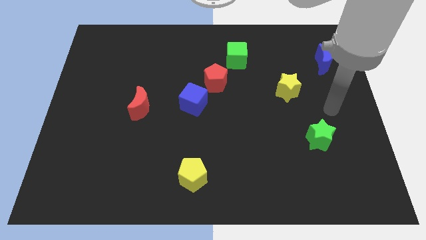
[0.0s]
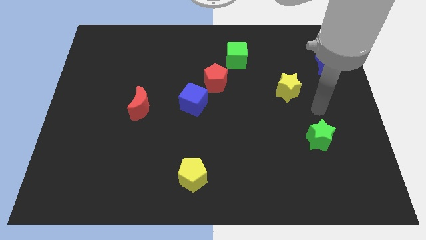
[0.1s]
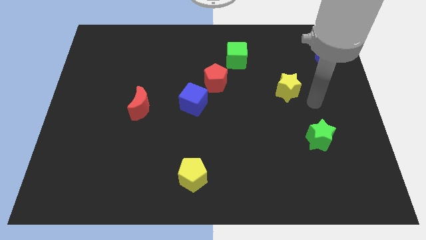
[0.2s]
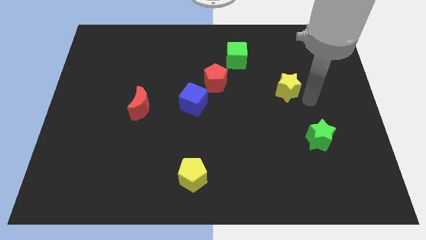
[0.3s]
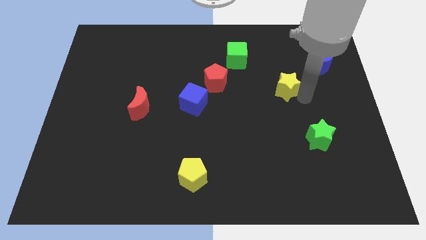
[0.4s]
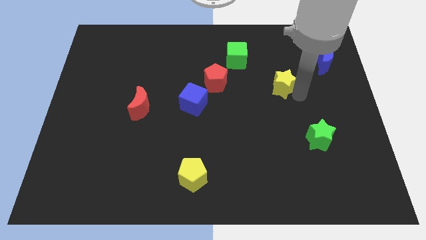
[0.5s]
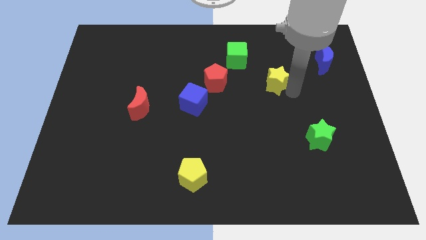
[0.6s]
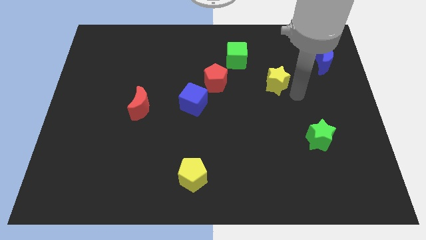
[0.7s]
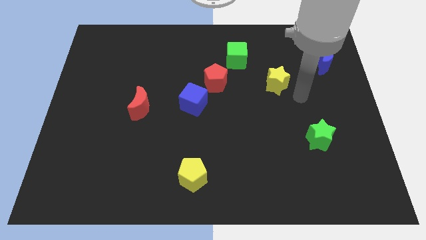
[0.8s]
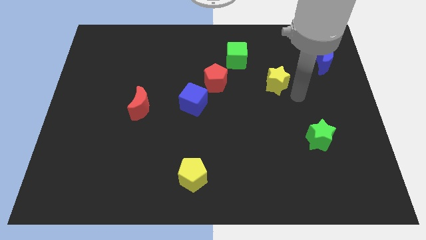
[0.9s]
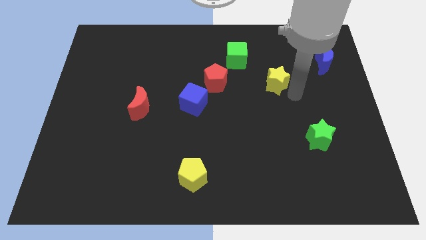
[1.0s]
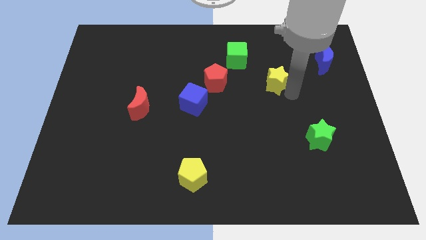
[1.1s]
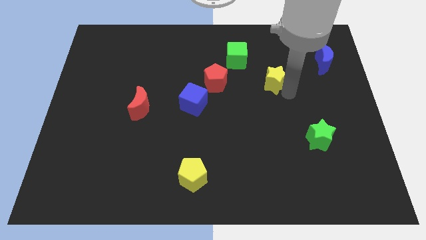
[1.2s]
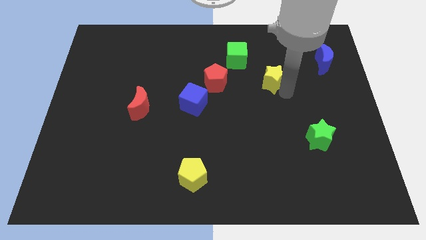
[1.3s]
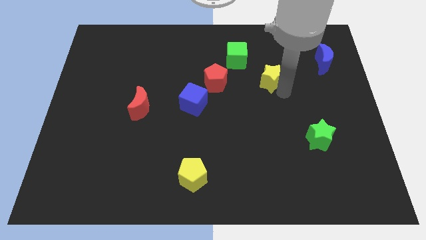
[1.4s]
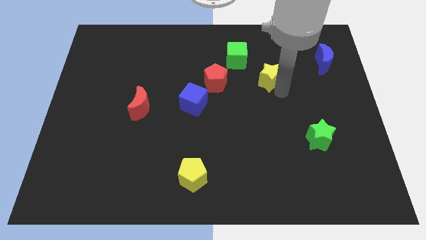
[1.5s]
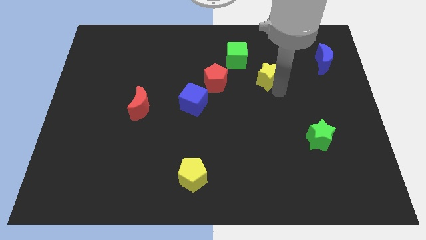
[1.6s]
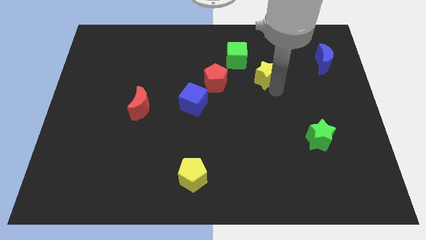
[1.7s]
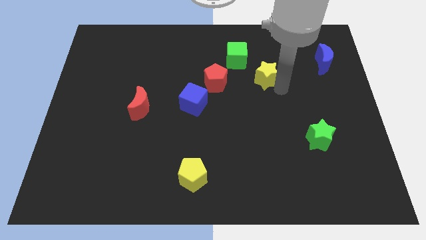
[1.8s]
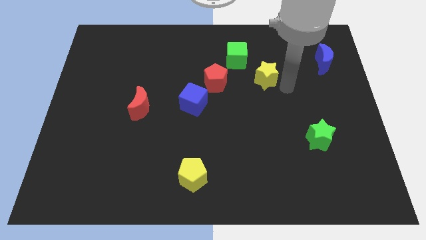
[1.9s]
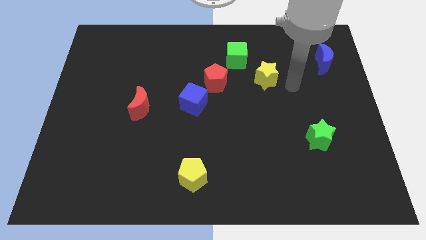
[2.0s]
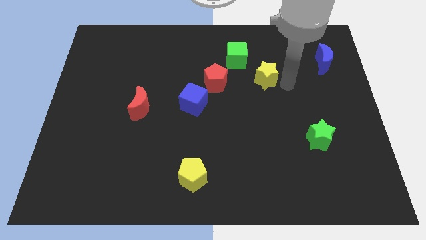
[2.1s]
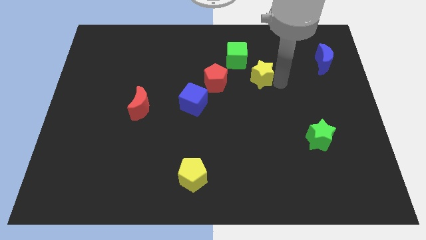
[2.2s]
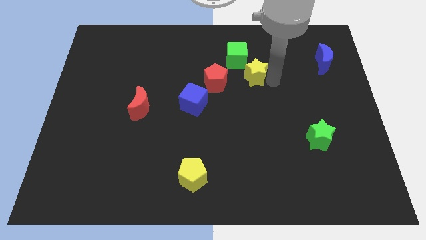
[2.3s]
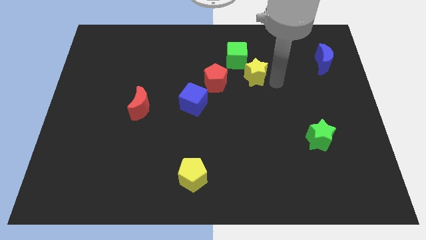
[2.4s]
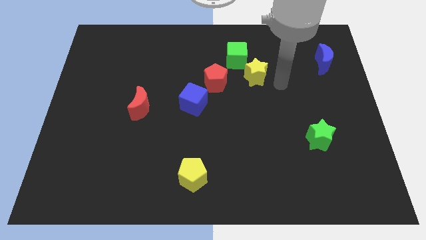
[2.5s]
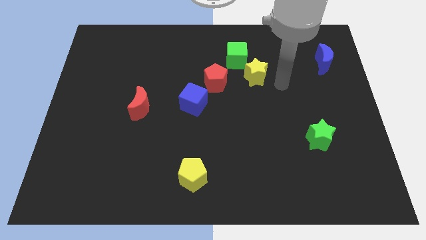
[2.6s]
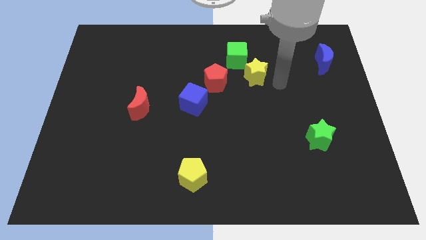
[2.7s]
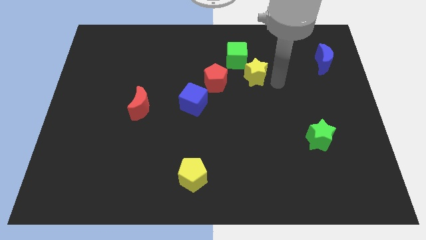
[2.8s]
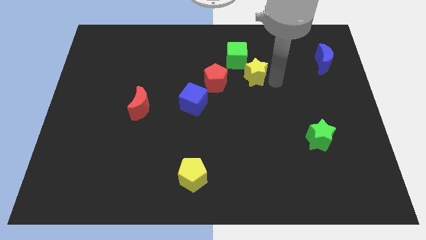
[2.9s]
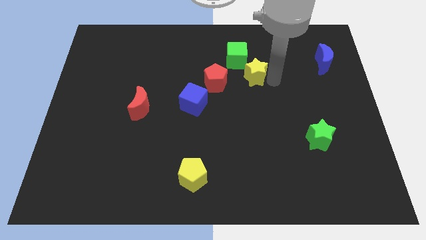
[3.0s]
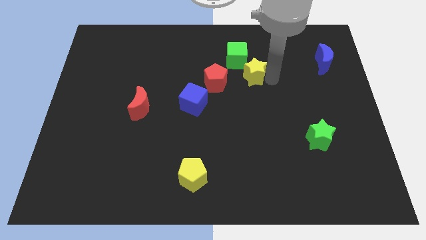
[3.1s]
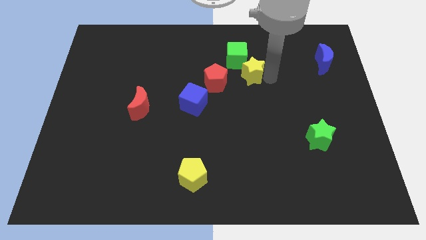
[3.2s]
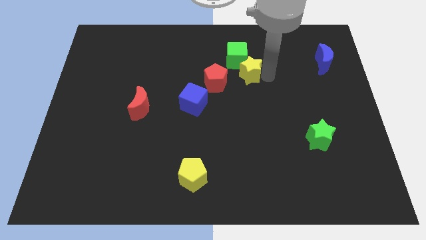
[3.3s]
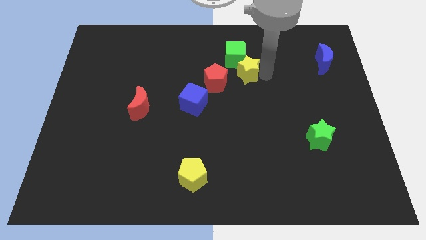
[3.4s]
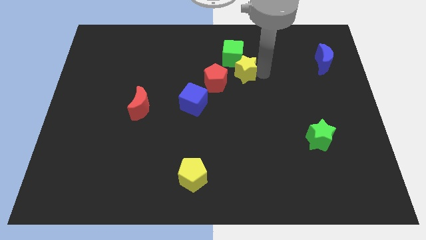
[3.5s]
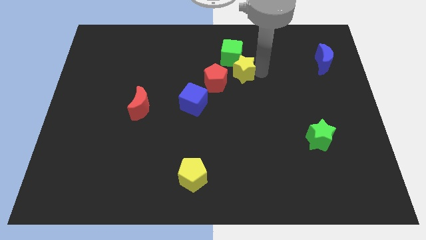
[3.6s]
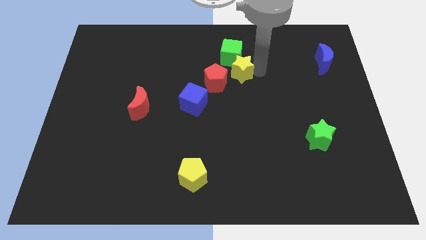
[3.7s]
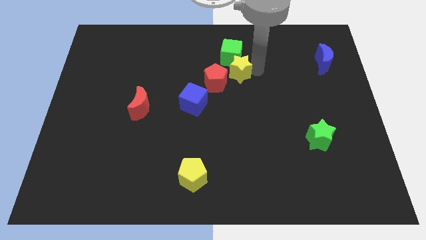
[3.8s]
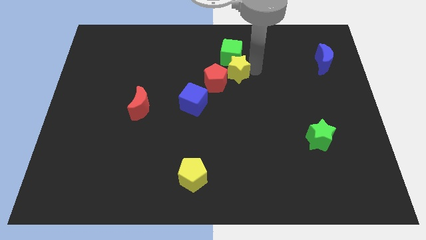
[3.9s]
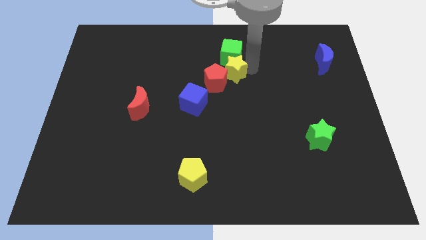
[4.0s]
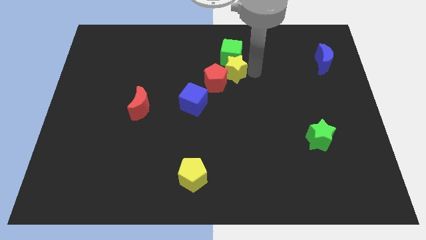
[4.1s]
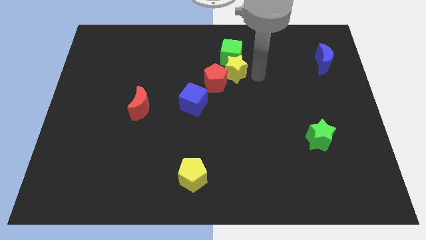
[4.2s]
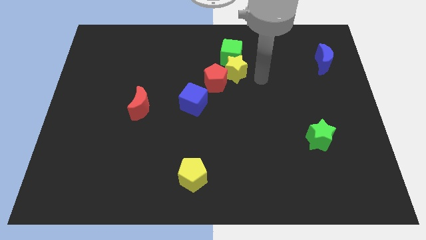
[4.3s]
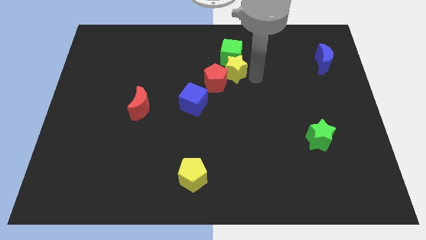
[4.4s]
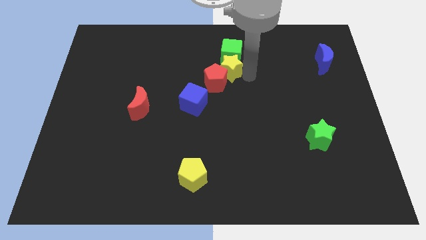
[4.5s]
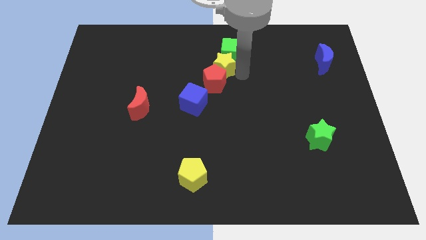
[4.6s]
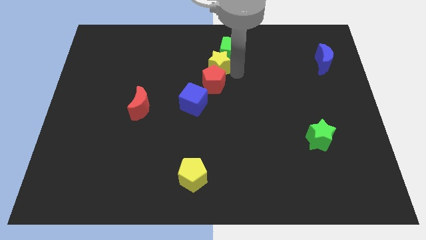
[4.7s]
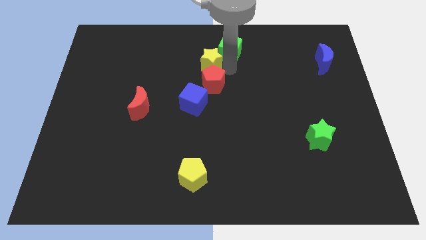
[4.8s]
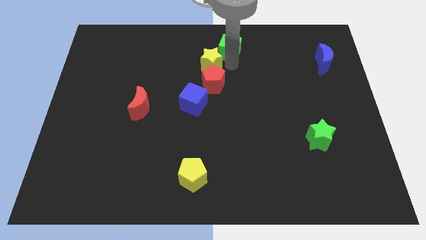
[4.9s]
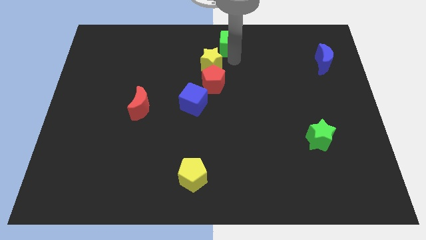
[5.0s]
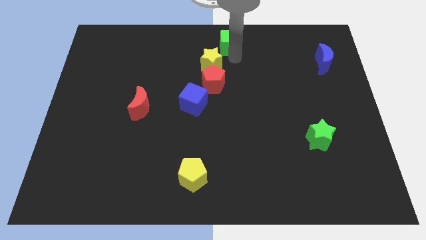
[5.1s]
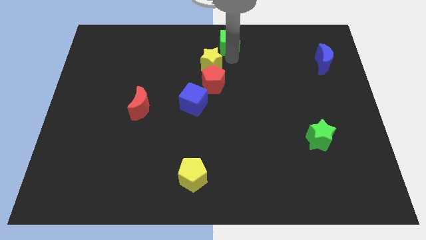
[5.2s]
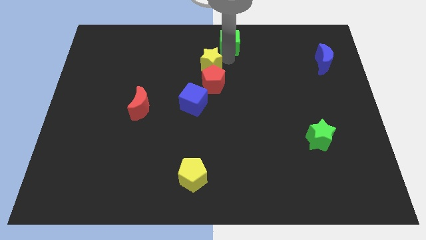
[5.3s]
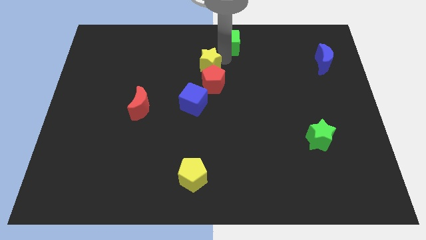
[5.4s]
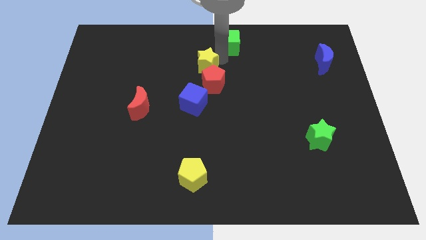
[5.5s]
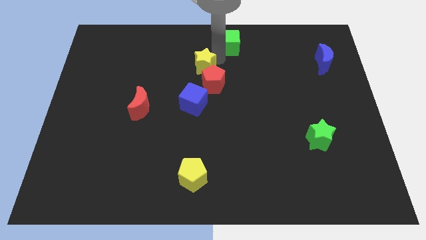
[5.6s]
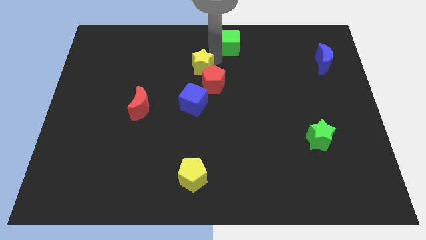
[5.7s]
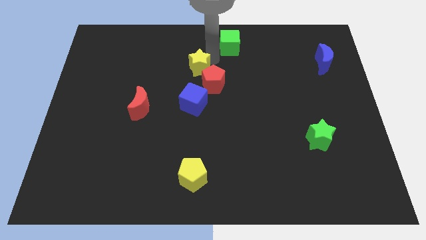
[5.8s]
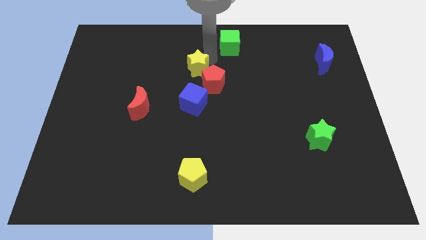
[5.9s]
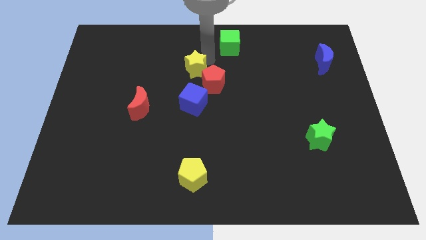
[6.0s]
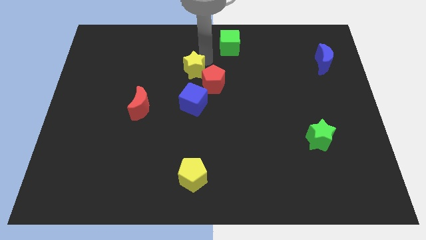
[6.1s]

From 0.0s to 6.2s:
move the yellow star to the left of the red pentagon

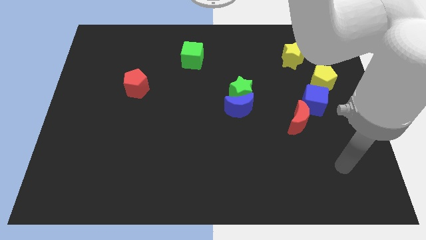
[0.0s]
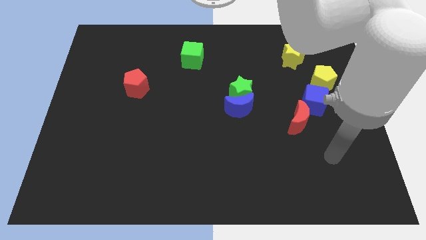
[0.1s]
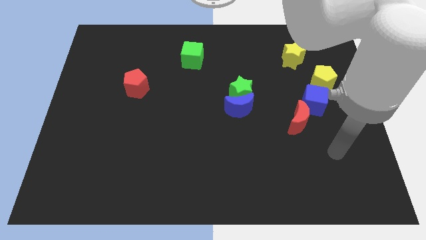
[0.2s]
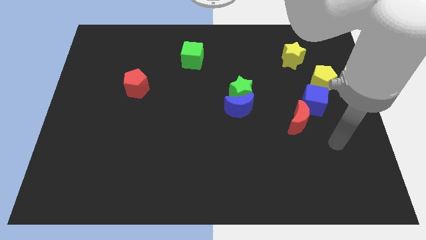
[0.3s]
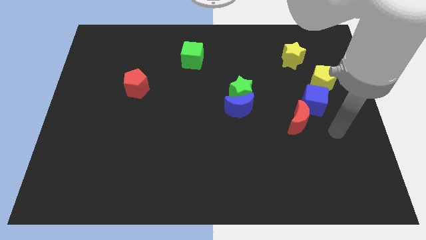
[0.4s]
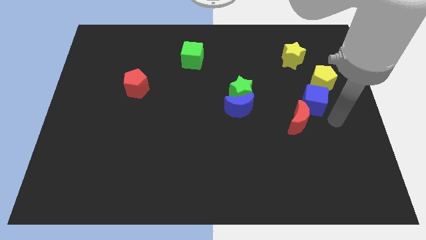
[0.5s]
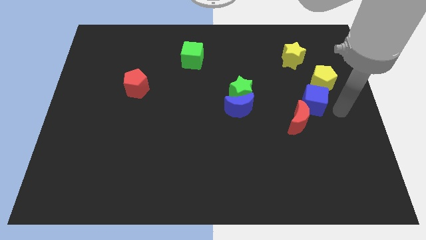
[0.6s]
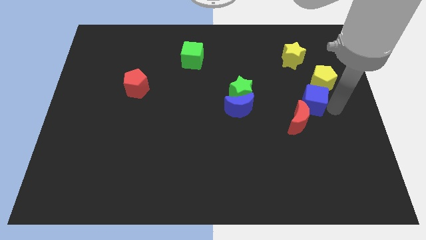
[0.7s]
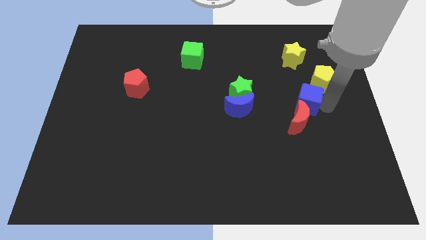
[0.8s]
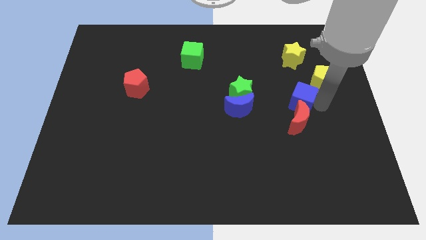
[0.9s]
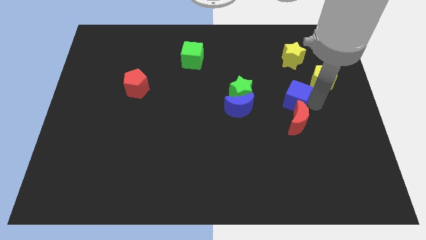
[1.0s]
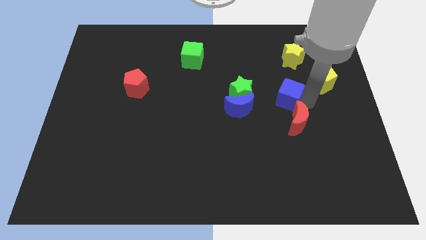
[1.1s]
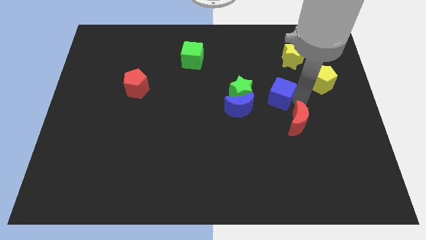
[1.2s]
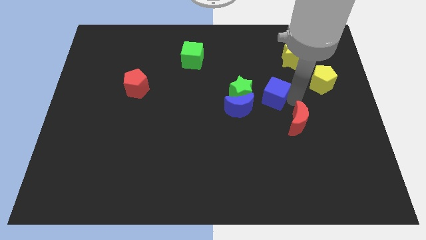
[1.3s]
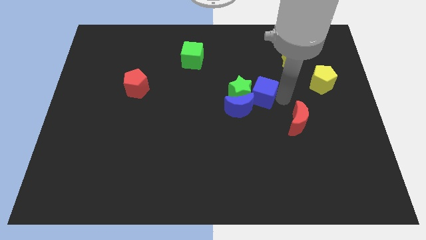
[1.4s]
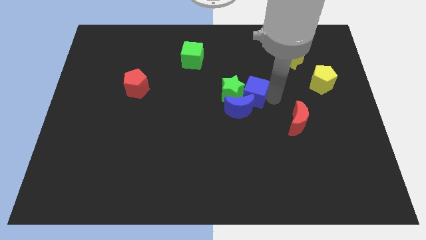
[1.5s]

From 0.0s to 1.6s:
move the blue cube to the top side of the blue moon
